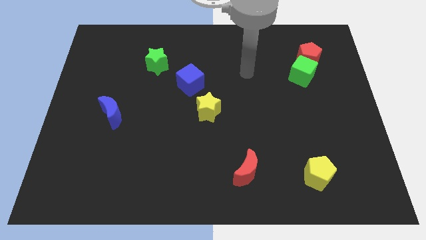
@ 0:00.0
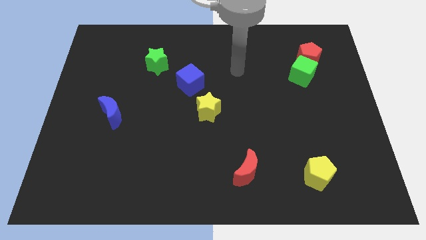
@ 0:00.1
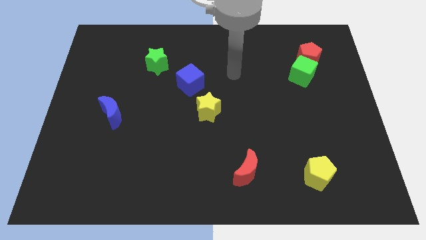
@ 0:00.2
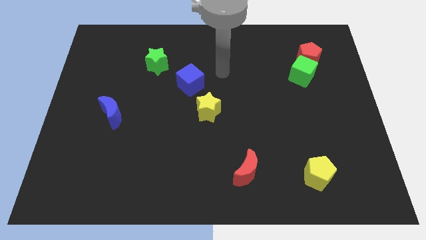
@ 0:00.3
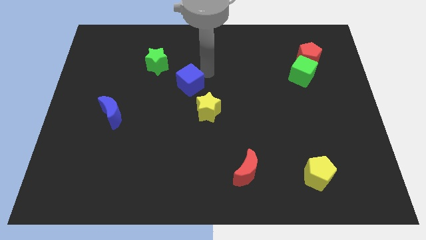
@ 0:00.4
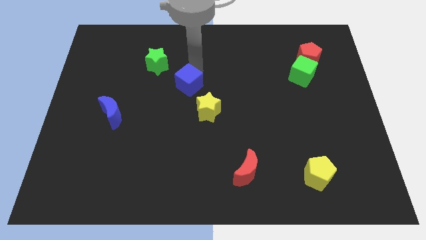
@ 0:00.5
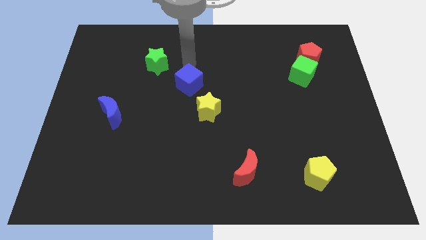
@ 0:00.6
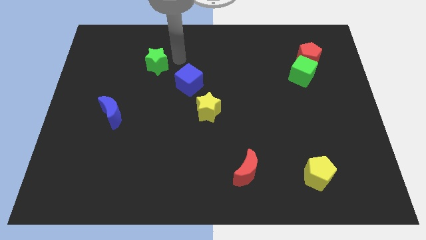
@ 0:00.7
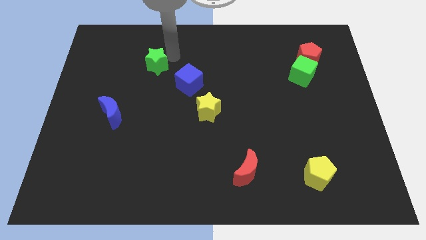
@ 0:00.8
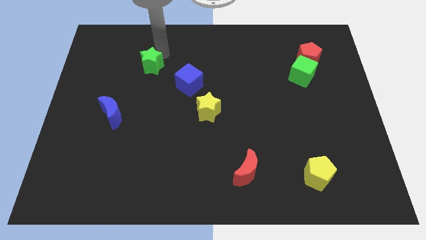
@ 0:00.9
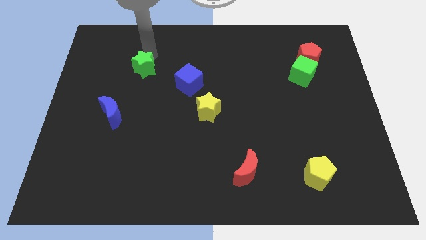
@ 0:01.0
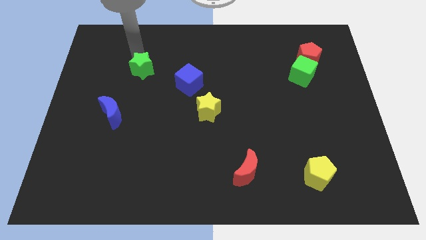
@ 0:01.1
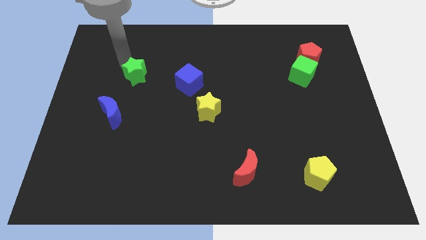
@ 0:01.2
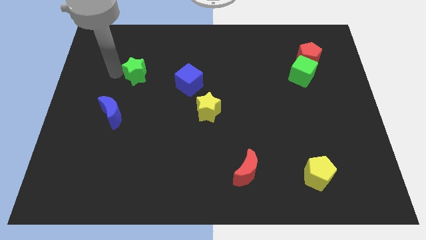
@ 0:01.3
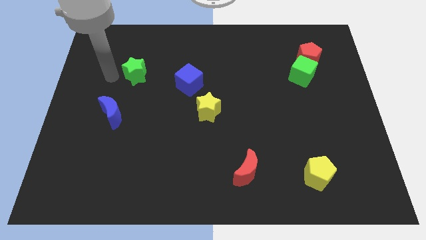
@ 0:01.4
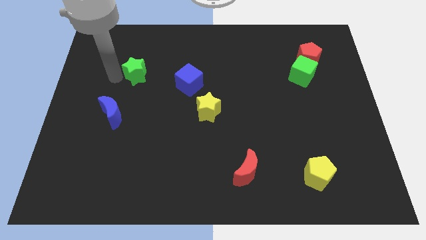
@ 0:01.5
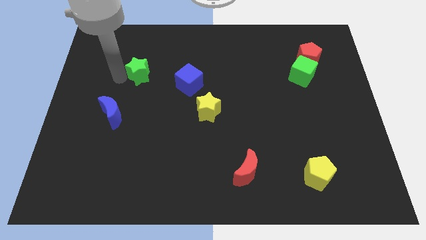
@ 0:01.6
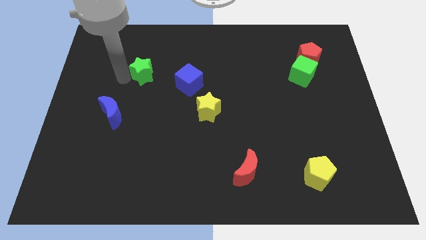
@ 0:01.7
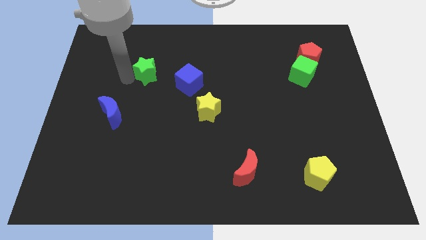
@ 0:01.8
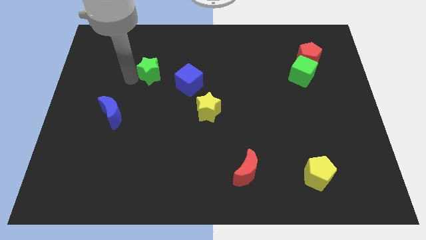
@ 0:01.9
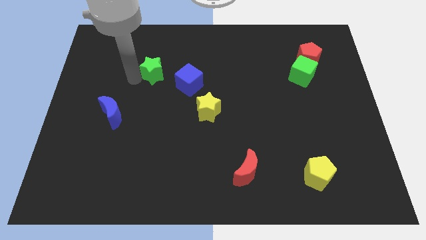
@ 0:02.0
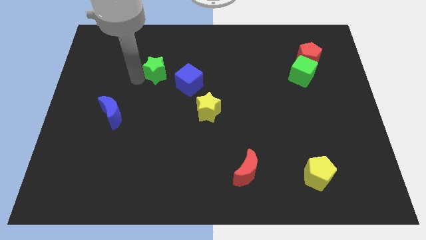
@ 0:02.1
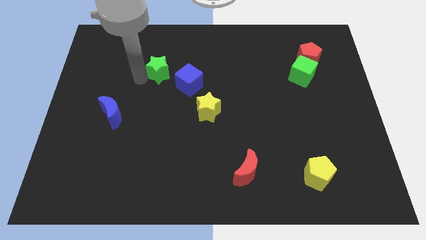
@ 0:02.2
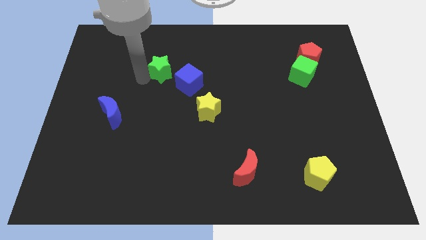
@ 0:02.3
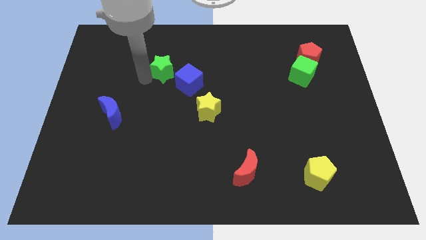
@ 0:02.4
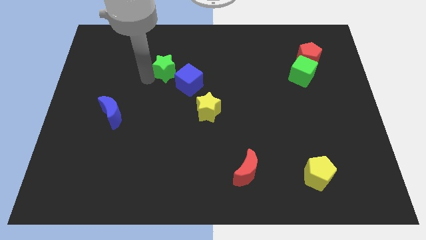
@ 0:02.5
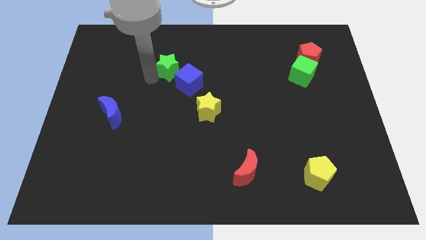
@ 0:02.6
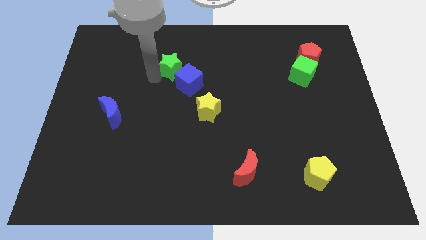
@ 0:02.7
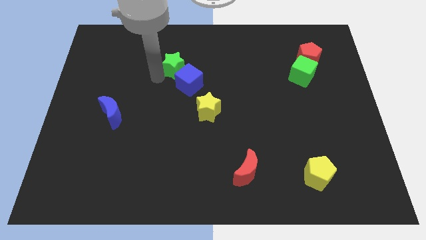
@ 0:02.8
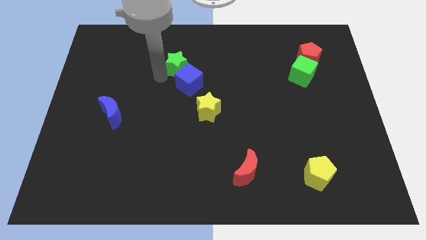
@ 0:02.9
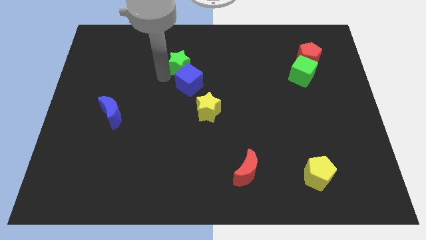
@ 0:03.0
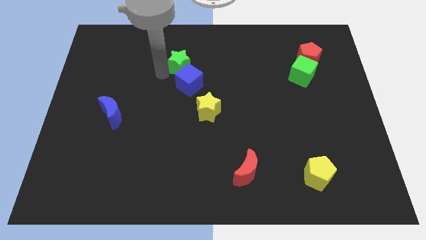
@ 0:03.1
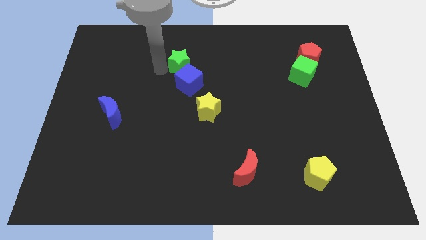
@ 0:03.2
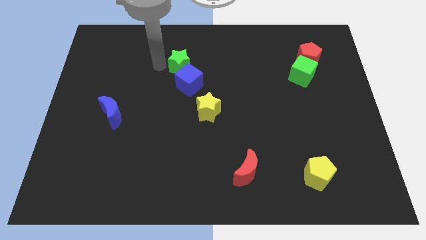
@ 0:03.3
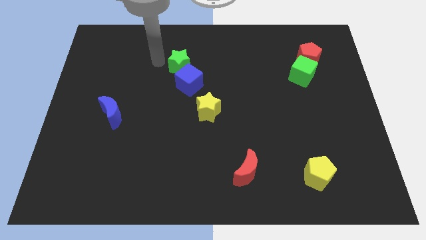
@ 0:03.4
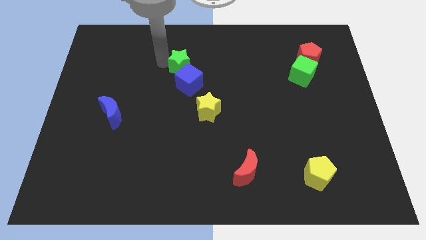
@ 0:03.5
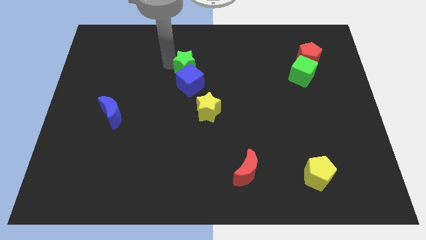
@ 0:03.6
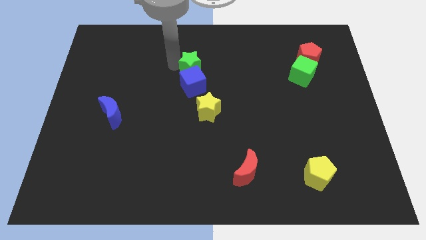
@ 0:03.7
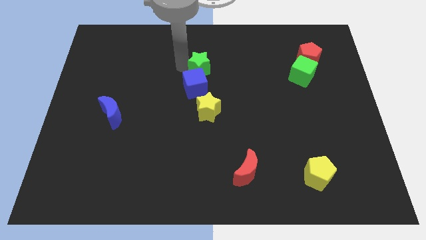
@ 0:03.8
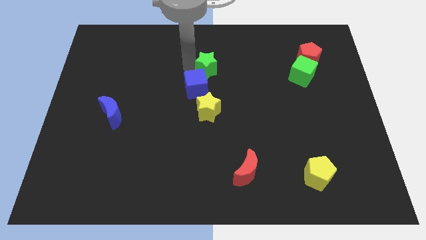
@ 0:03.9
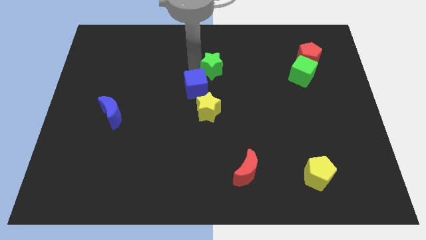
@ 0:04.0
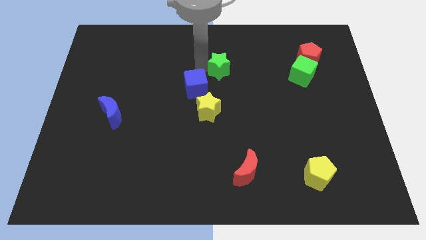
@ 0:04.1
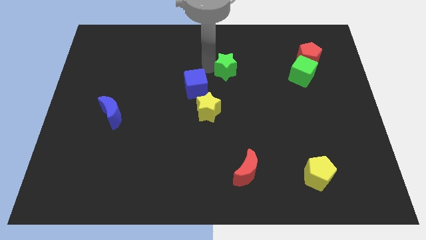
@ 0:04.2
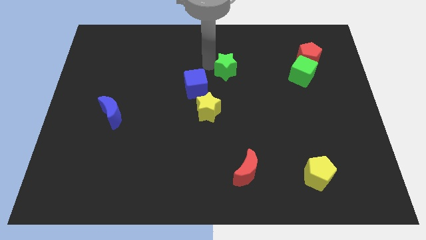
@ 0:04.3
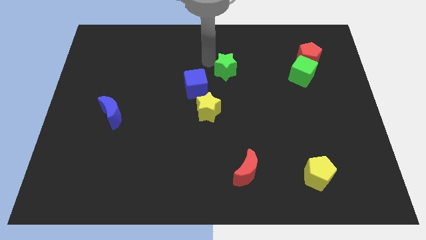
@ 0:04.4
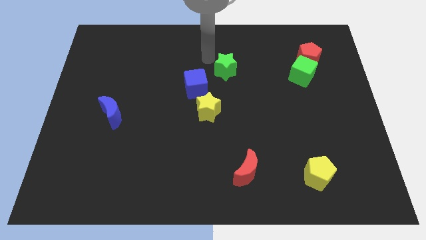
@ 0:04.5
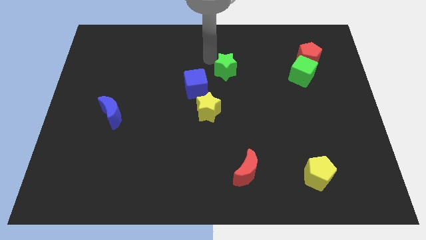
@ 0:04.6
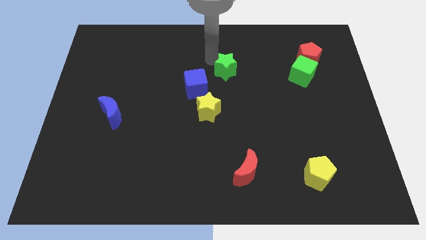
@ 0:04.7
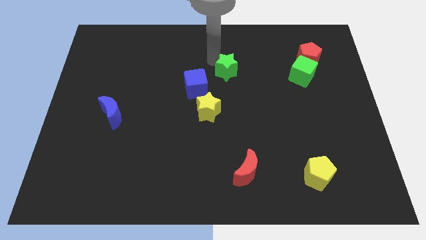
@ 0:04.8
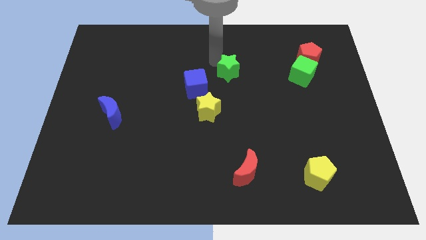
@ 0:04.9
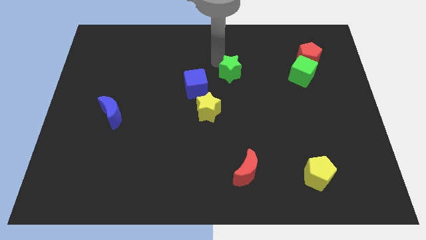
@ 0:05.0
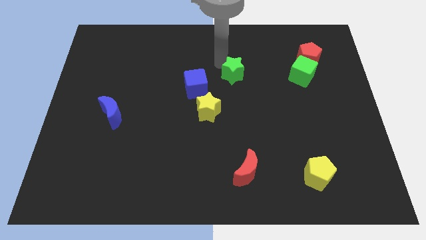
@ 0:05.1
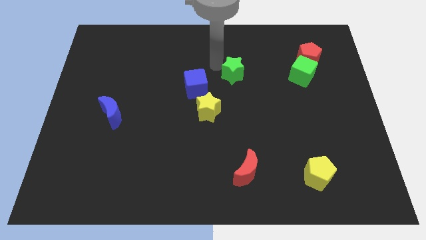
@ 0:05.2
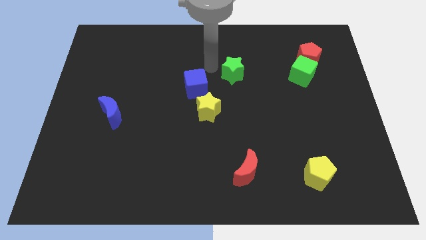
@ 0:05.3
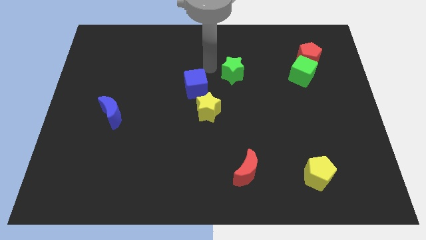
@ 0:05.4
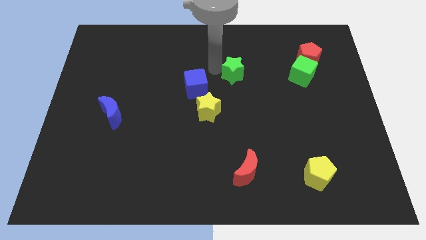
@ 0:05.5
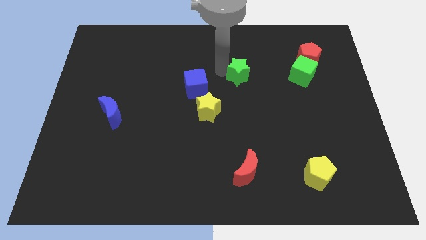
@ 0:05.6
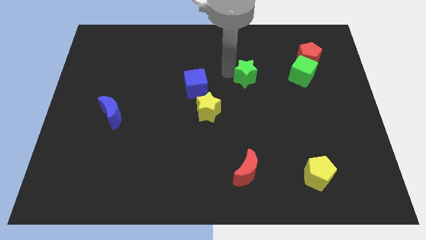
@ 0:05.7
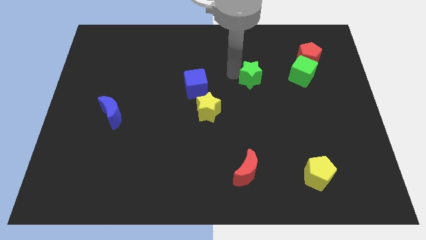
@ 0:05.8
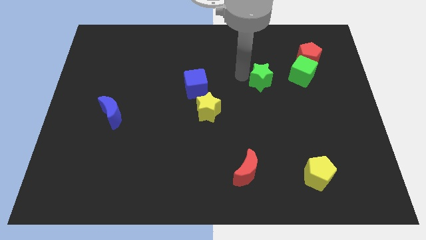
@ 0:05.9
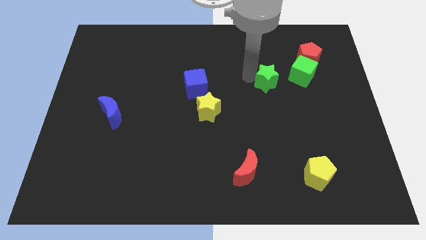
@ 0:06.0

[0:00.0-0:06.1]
push the green star to the bottom left of the green cube

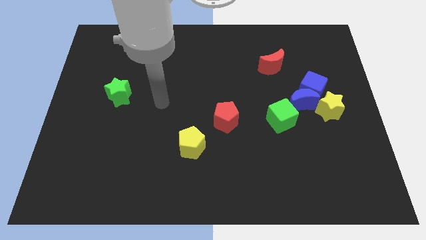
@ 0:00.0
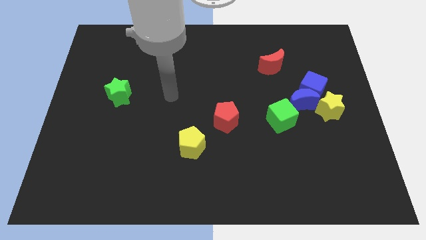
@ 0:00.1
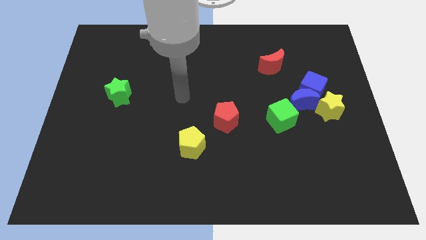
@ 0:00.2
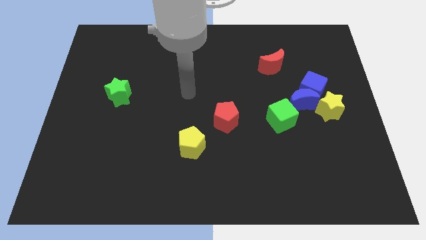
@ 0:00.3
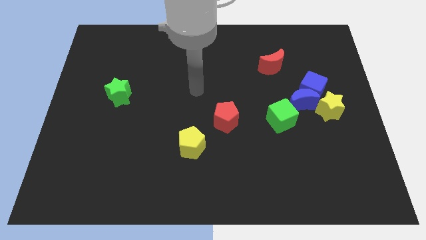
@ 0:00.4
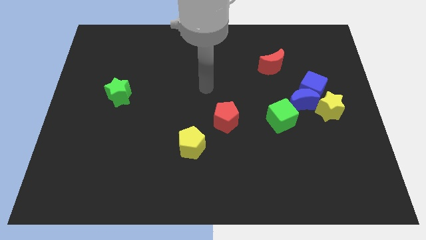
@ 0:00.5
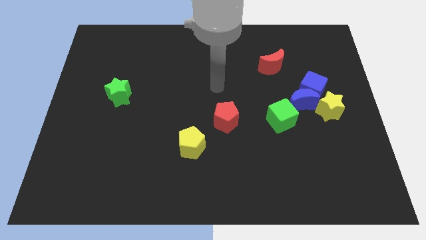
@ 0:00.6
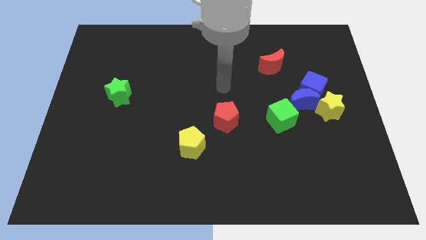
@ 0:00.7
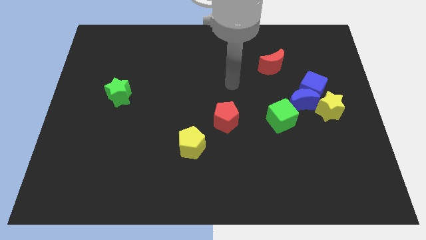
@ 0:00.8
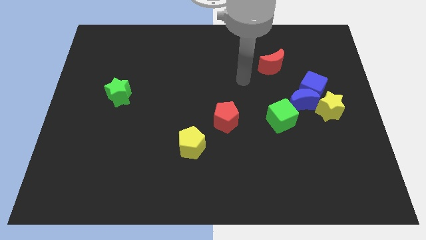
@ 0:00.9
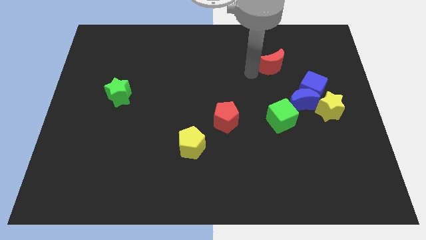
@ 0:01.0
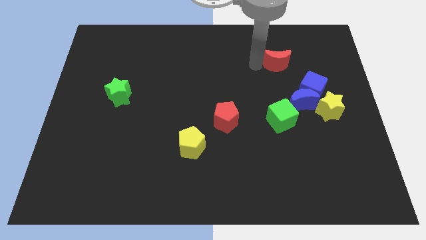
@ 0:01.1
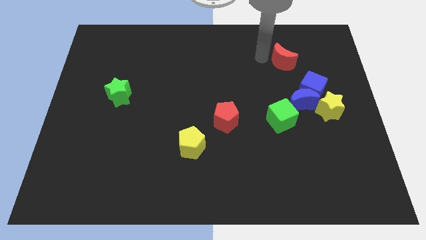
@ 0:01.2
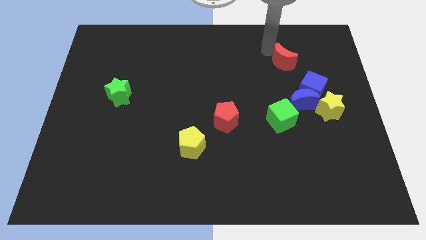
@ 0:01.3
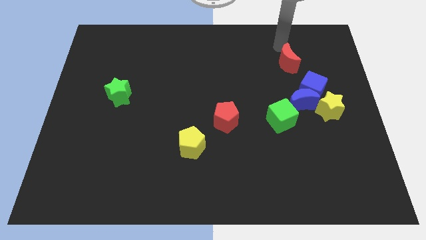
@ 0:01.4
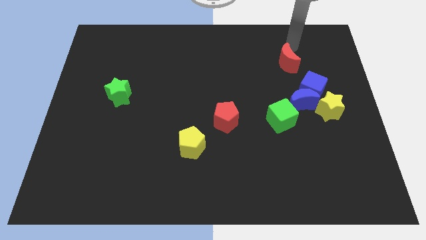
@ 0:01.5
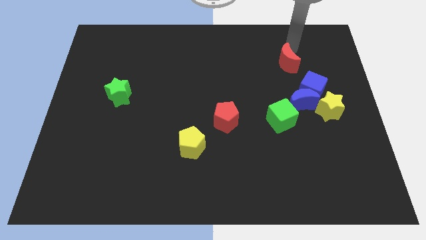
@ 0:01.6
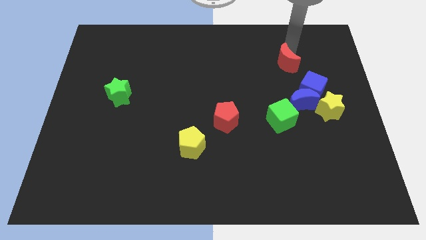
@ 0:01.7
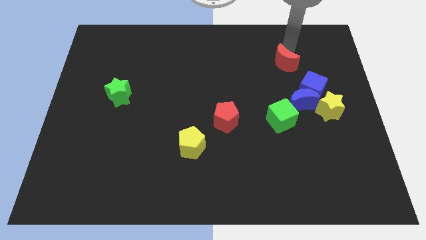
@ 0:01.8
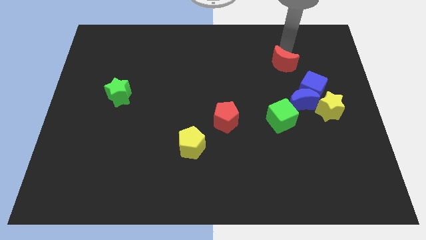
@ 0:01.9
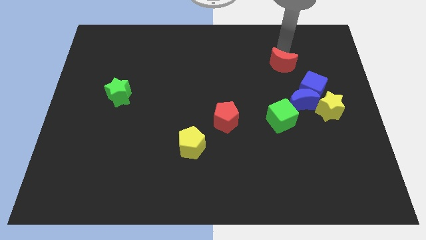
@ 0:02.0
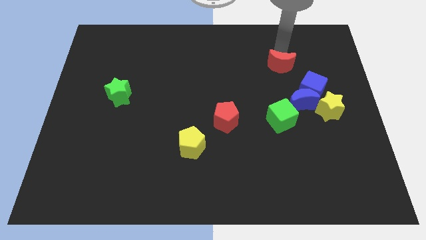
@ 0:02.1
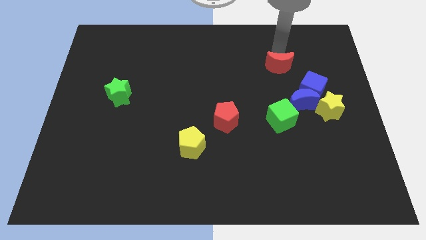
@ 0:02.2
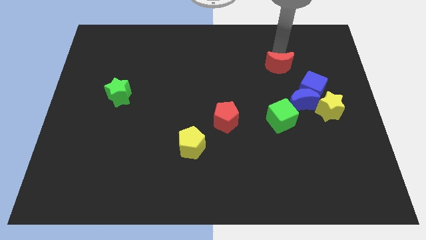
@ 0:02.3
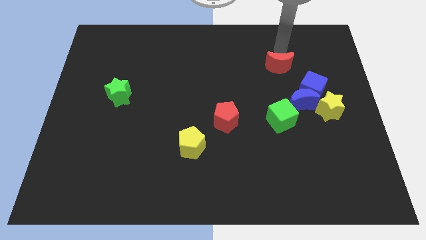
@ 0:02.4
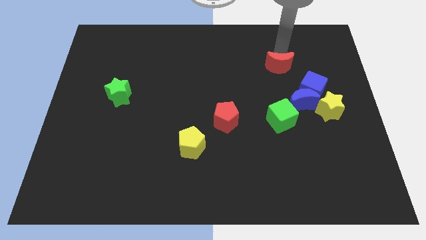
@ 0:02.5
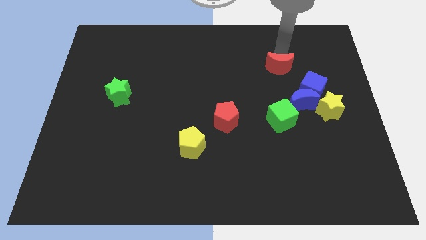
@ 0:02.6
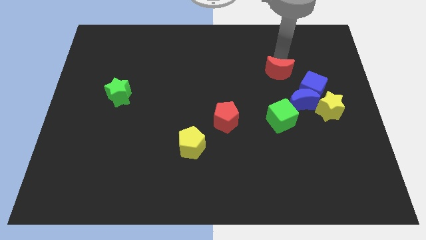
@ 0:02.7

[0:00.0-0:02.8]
move the red moon diagonally up and to the left of the blue moon
